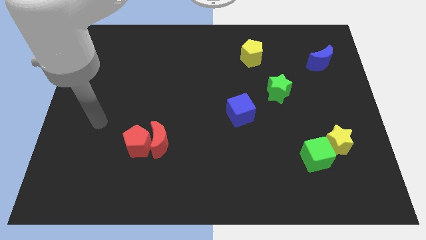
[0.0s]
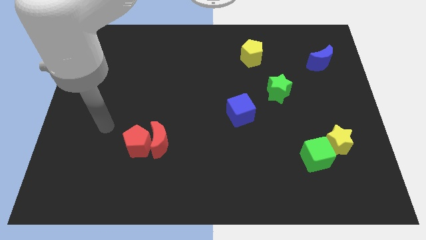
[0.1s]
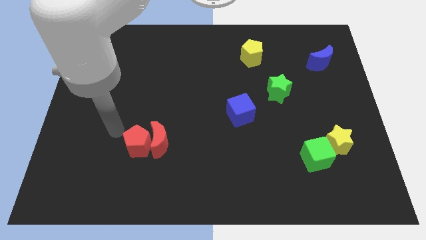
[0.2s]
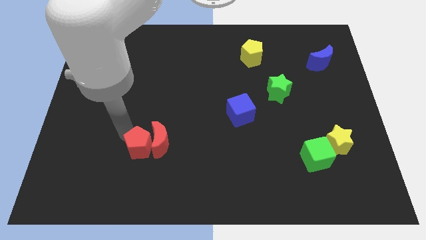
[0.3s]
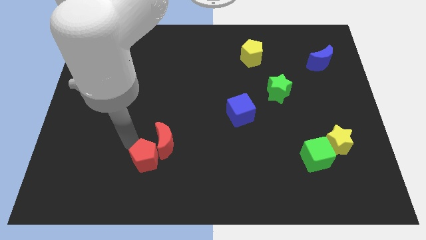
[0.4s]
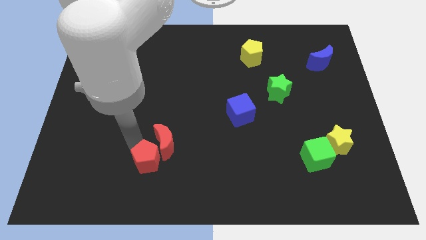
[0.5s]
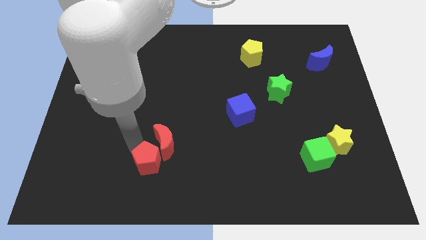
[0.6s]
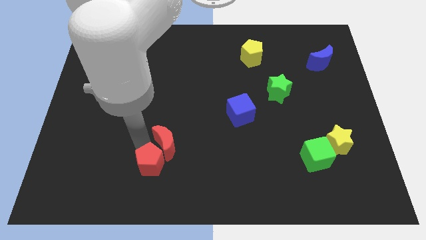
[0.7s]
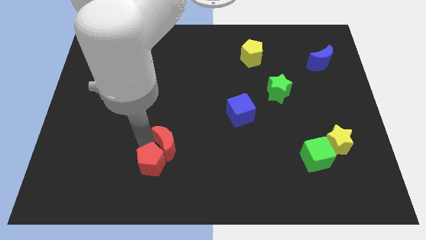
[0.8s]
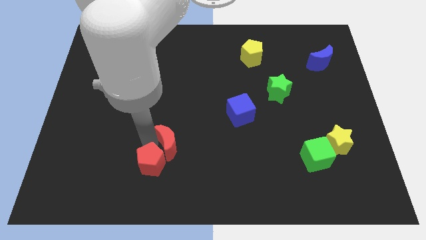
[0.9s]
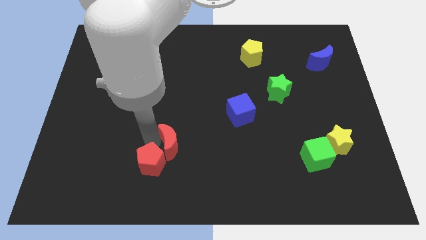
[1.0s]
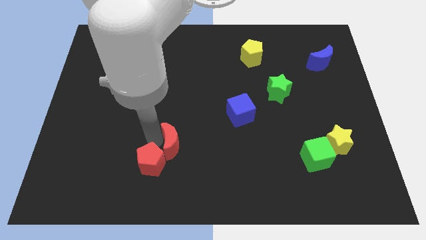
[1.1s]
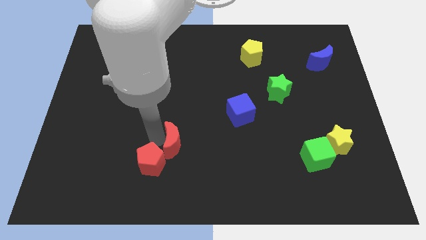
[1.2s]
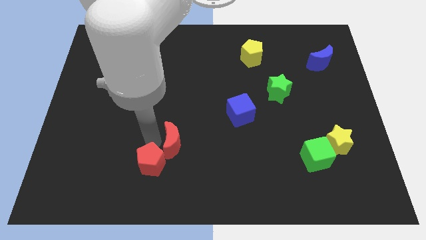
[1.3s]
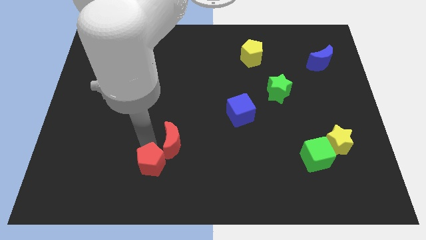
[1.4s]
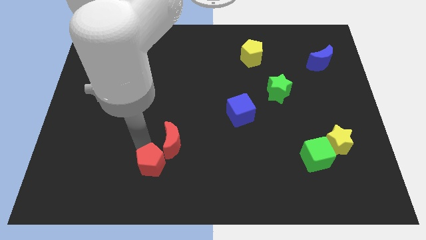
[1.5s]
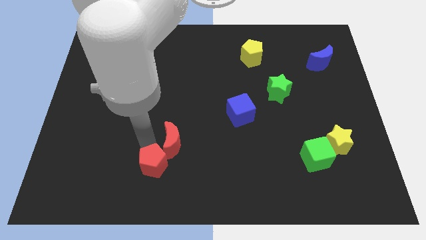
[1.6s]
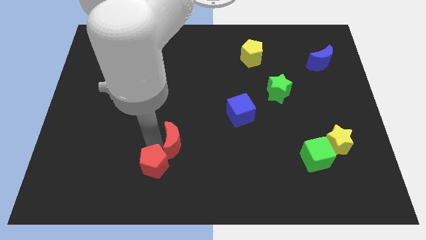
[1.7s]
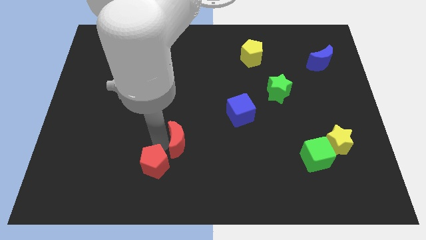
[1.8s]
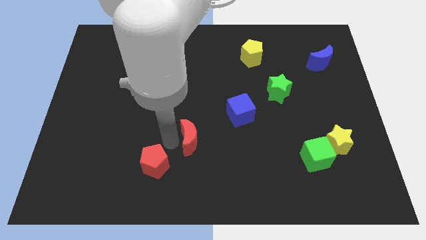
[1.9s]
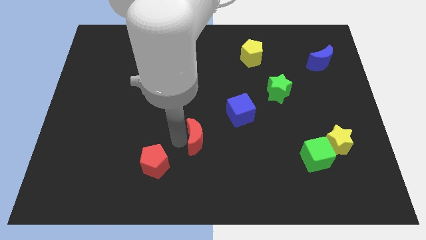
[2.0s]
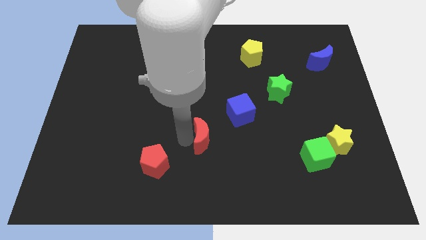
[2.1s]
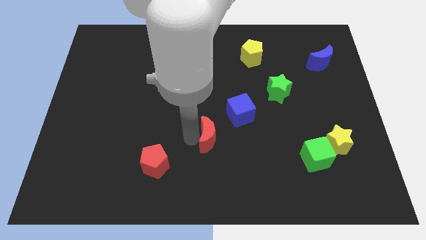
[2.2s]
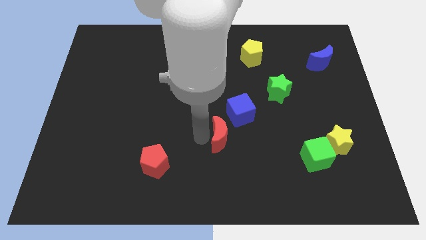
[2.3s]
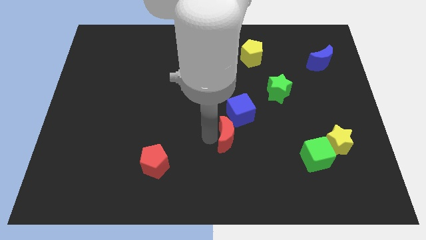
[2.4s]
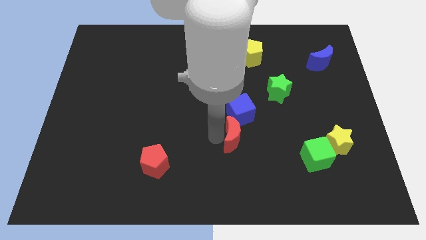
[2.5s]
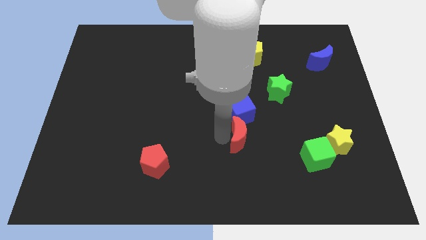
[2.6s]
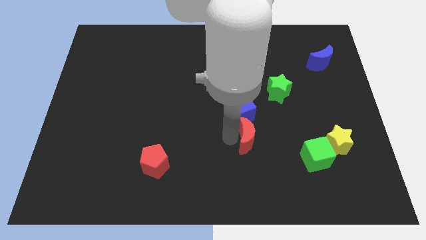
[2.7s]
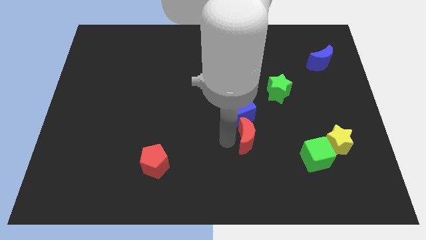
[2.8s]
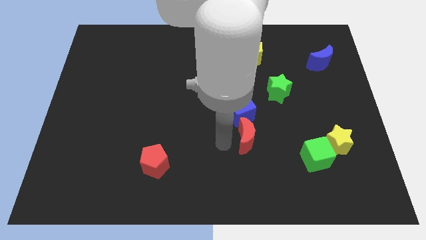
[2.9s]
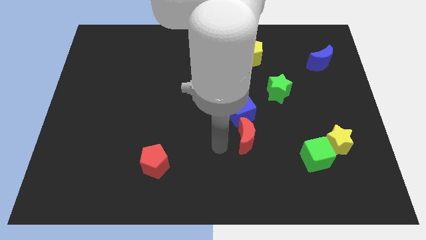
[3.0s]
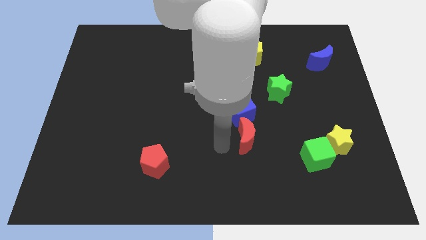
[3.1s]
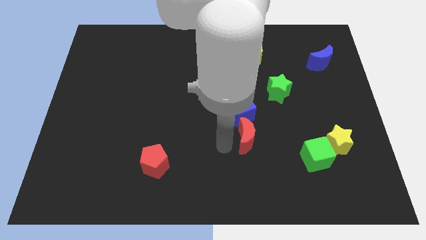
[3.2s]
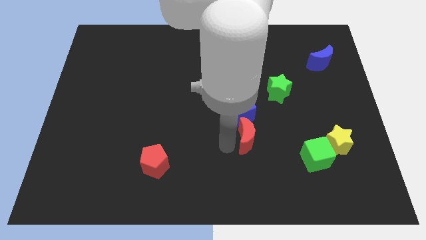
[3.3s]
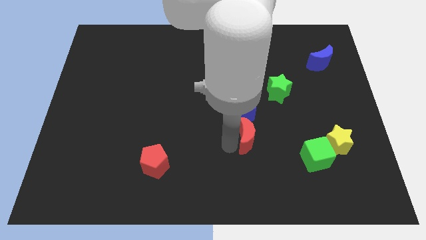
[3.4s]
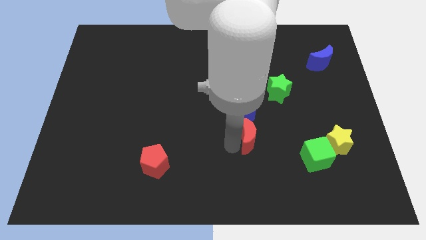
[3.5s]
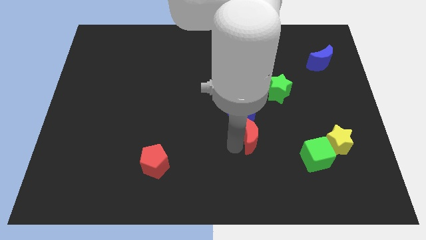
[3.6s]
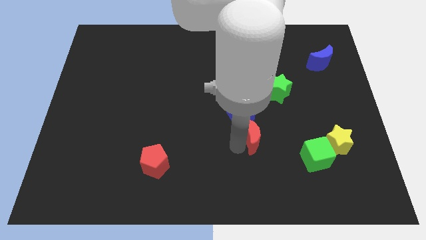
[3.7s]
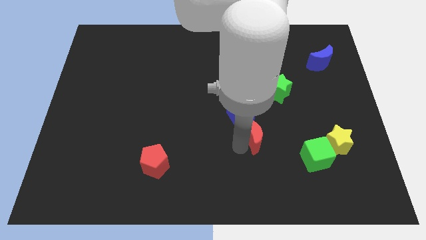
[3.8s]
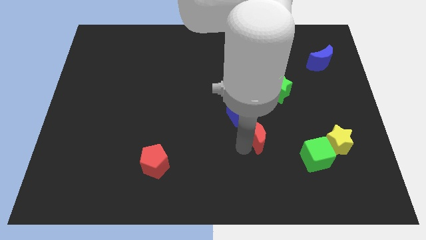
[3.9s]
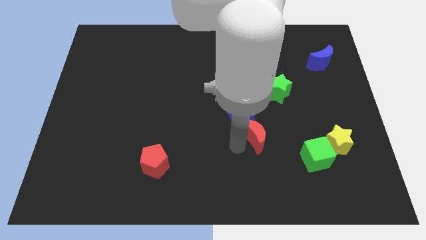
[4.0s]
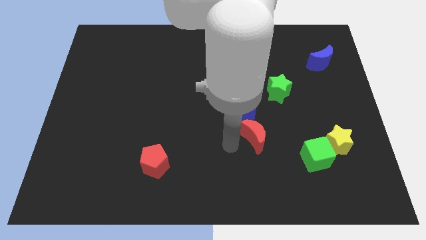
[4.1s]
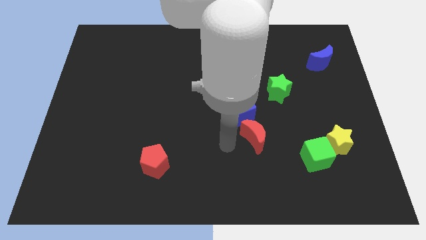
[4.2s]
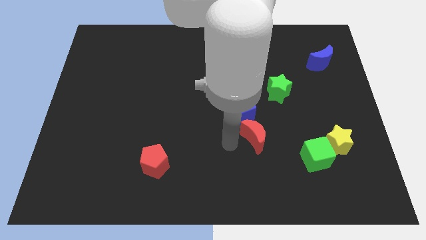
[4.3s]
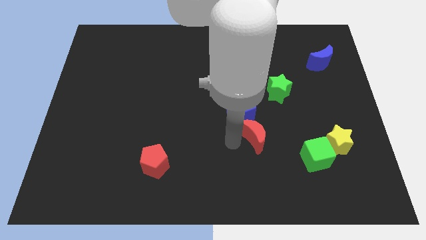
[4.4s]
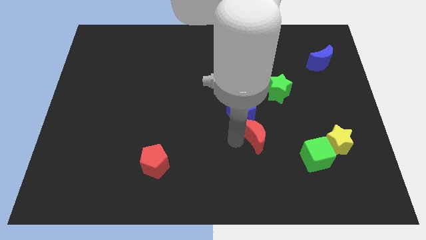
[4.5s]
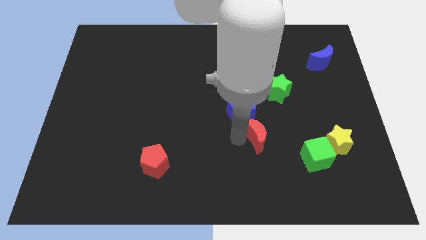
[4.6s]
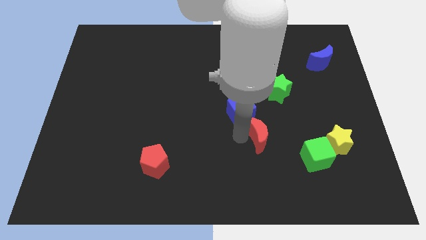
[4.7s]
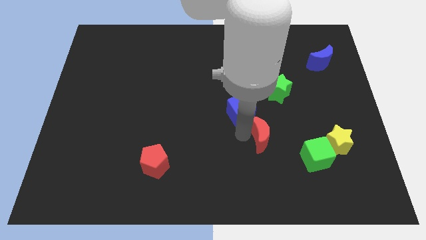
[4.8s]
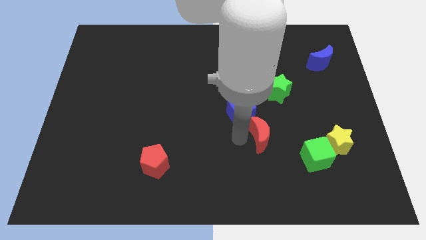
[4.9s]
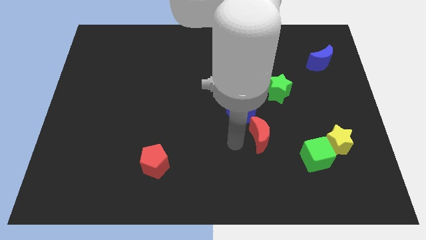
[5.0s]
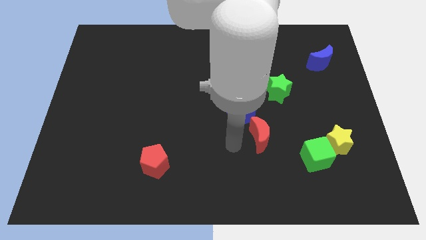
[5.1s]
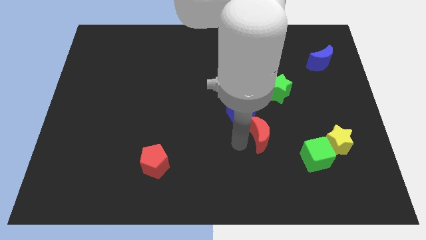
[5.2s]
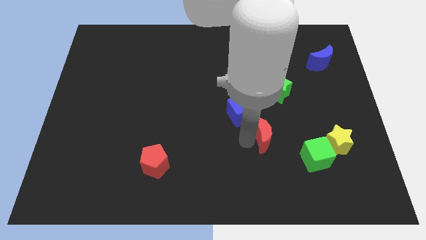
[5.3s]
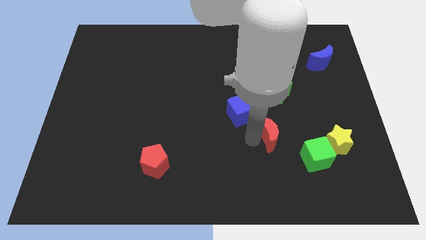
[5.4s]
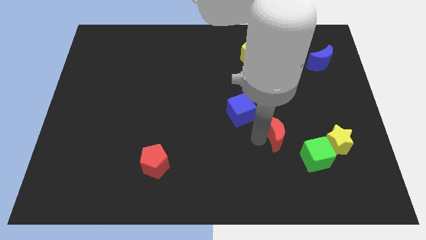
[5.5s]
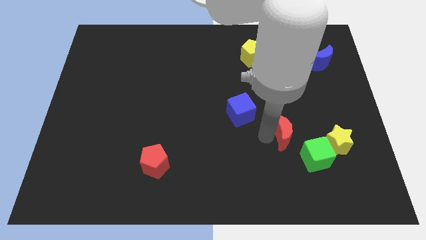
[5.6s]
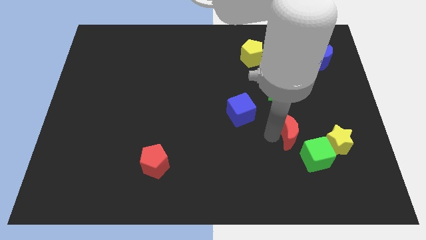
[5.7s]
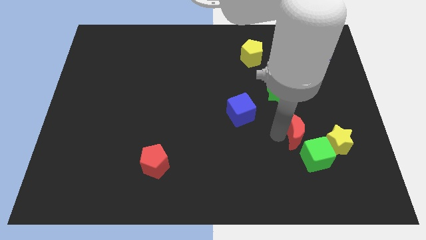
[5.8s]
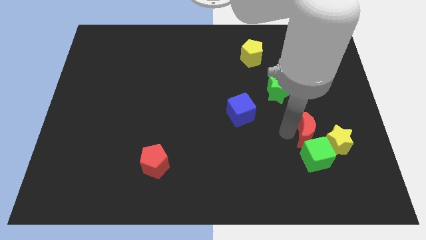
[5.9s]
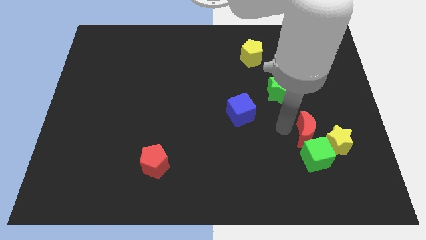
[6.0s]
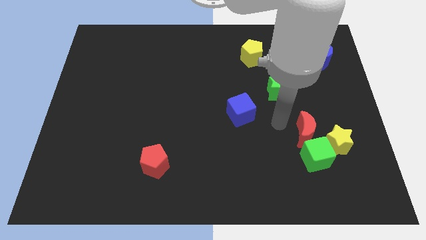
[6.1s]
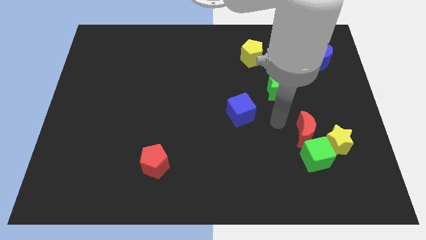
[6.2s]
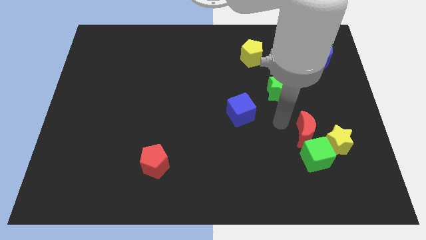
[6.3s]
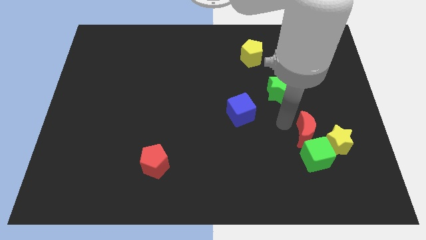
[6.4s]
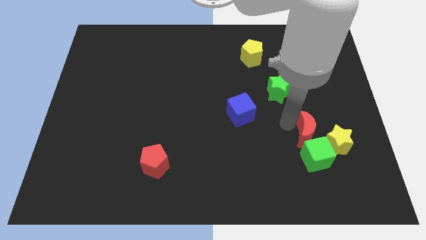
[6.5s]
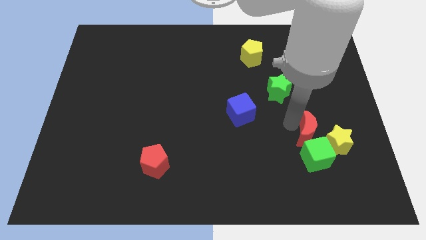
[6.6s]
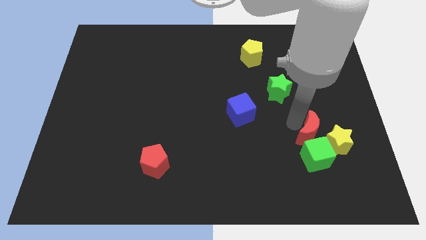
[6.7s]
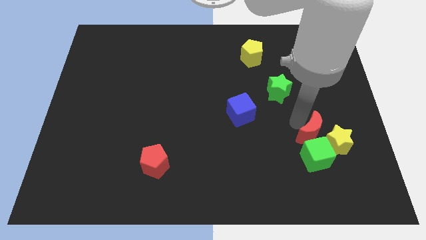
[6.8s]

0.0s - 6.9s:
move the red moon towards the yellow star

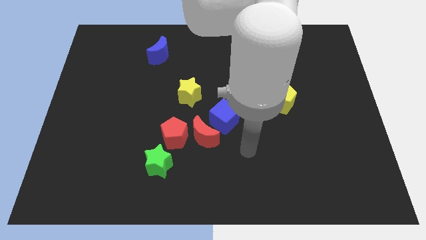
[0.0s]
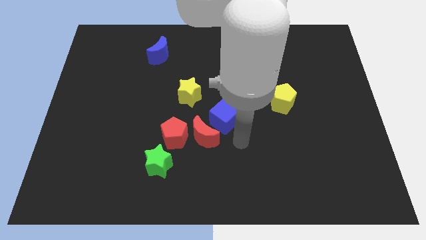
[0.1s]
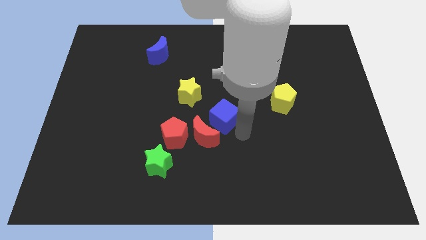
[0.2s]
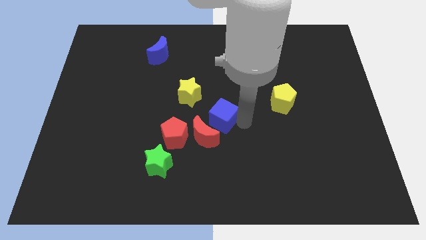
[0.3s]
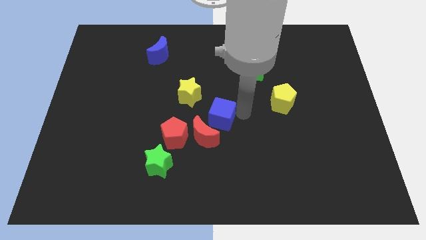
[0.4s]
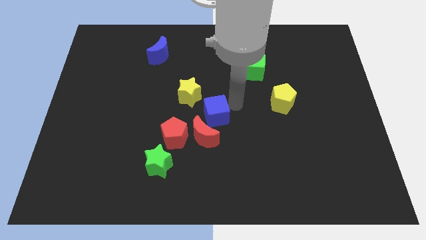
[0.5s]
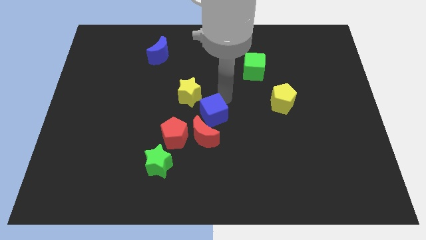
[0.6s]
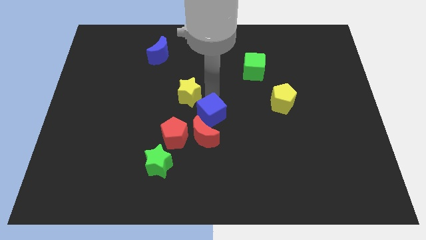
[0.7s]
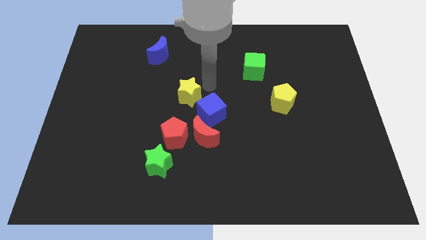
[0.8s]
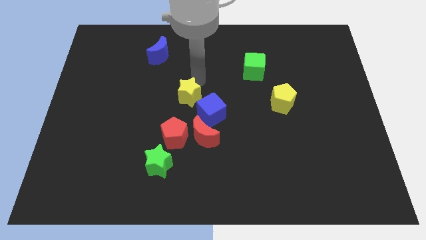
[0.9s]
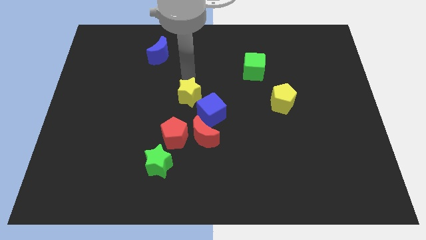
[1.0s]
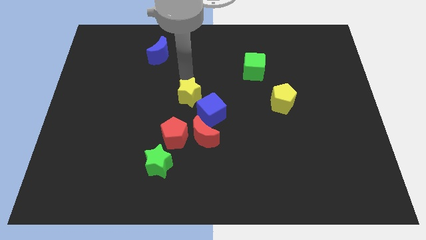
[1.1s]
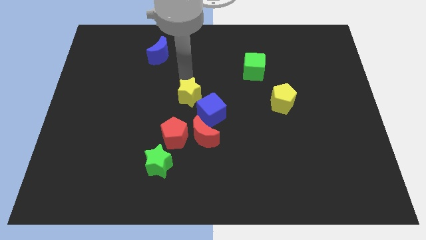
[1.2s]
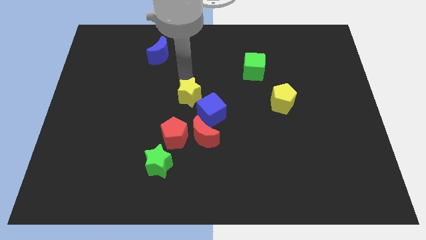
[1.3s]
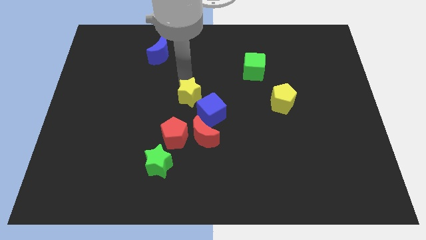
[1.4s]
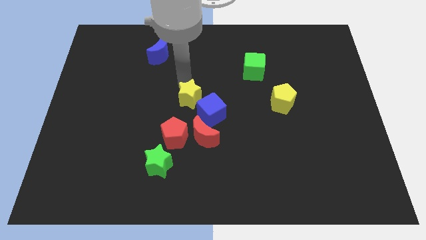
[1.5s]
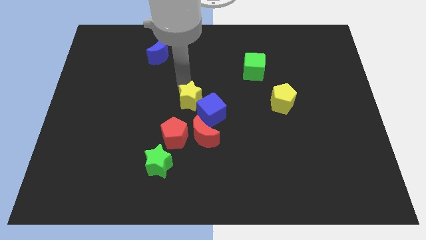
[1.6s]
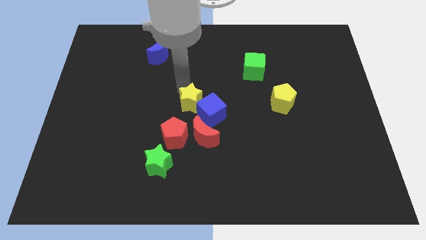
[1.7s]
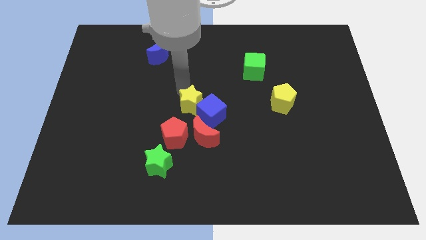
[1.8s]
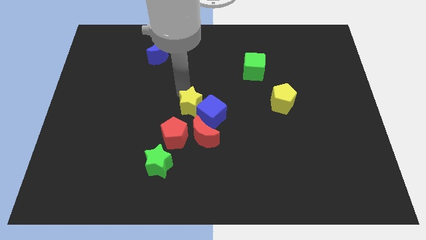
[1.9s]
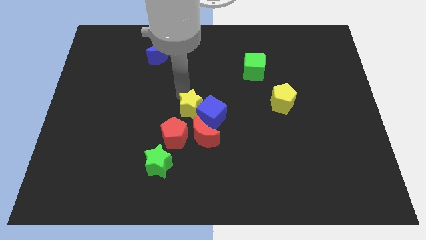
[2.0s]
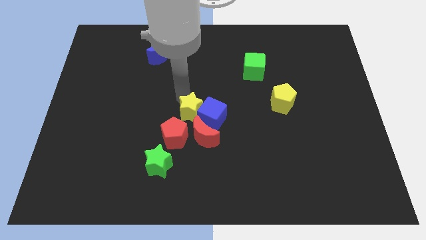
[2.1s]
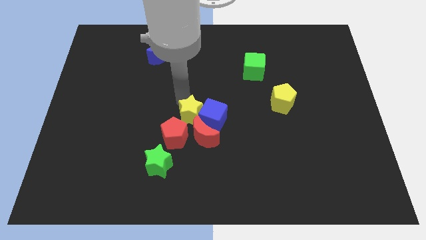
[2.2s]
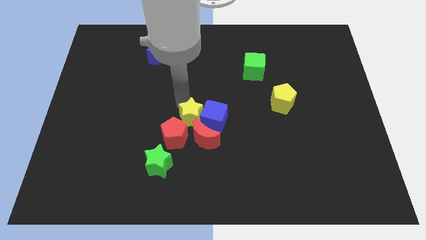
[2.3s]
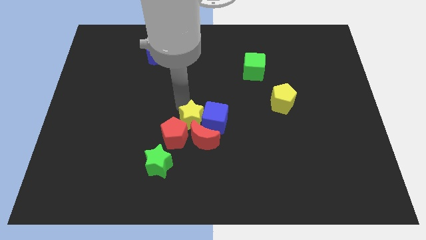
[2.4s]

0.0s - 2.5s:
push the yellow star to the red moon
